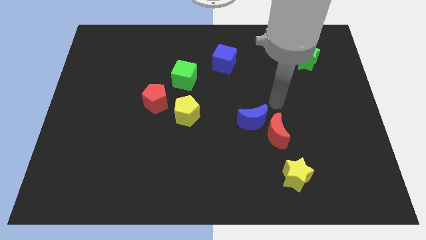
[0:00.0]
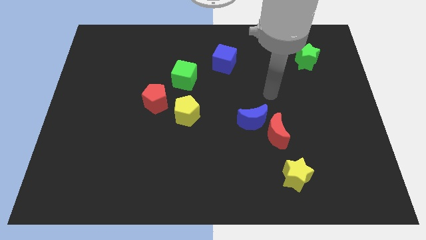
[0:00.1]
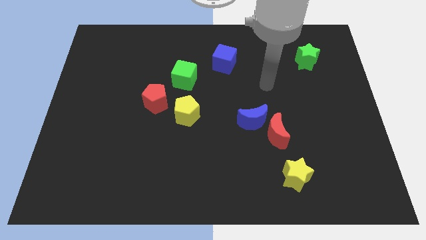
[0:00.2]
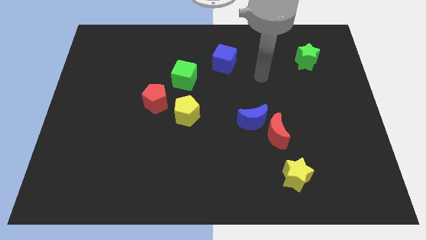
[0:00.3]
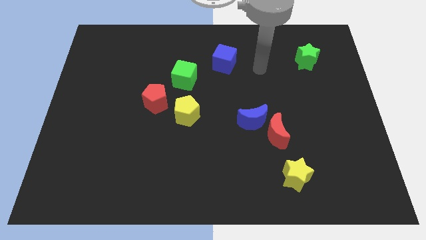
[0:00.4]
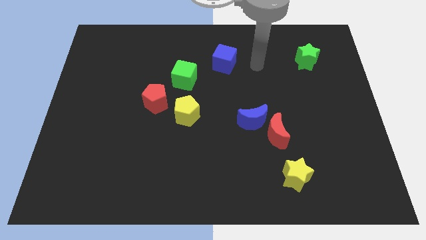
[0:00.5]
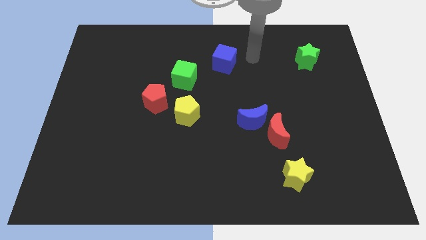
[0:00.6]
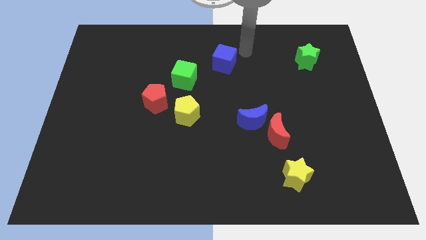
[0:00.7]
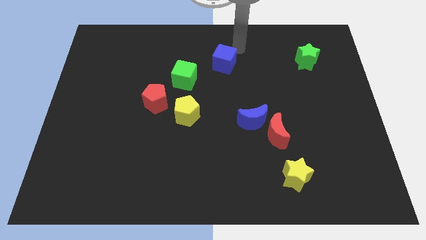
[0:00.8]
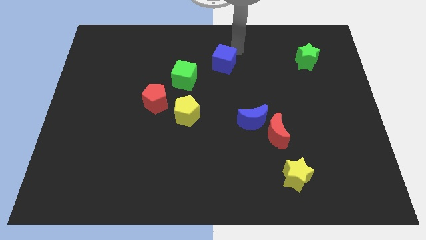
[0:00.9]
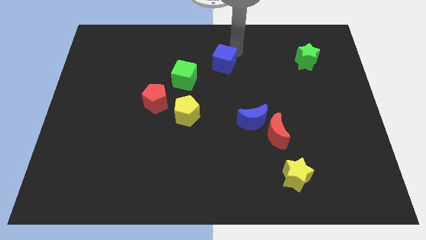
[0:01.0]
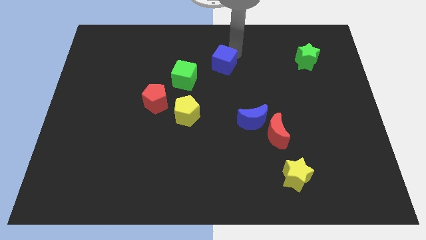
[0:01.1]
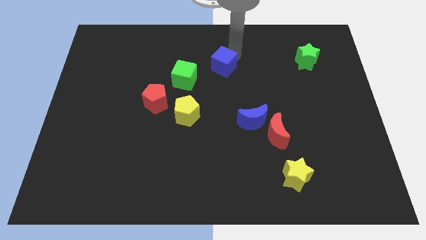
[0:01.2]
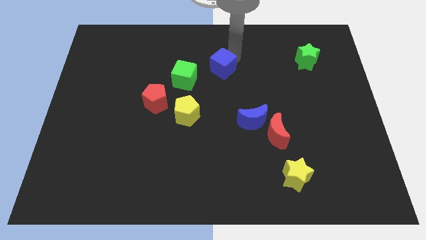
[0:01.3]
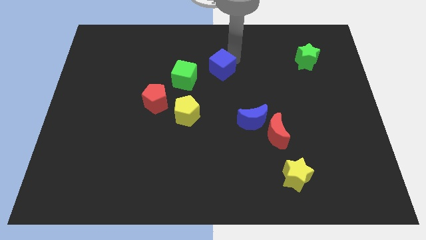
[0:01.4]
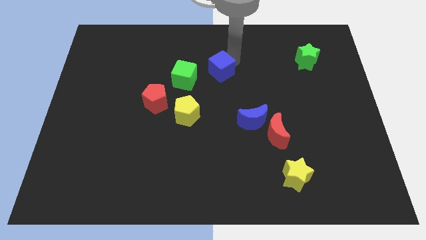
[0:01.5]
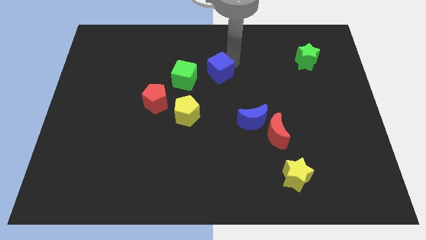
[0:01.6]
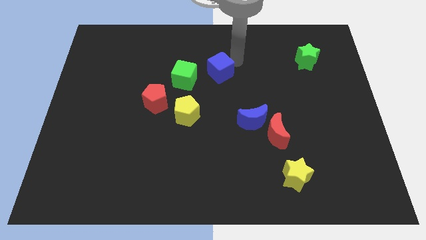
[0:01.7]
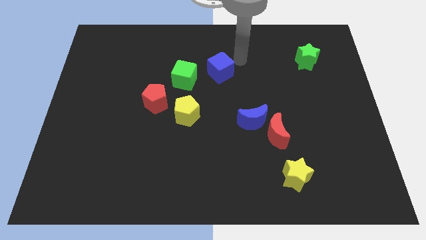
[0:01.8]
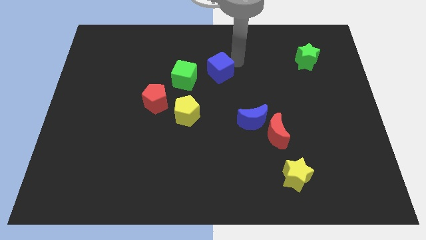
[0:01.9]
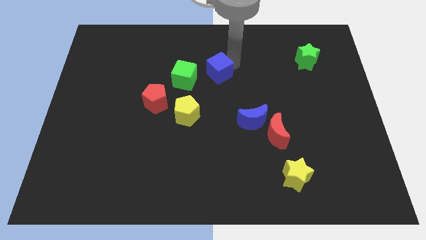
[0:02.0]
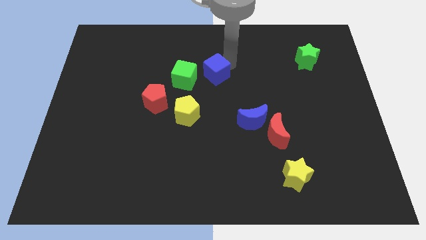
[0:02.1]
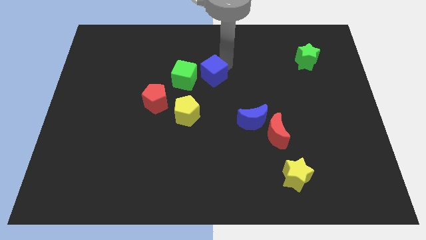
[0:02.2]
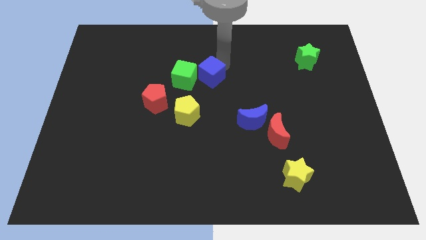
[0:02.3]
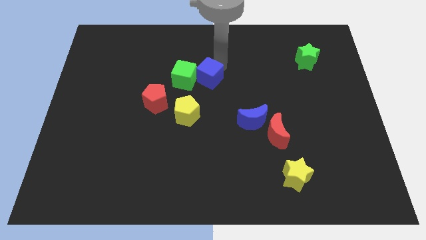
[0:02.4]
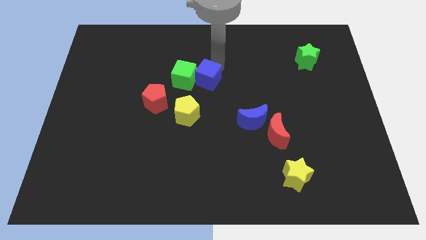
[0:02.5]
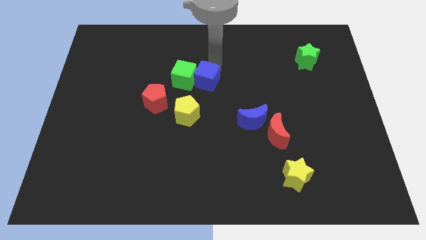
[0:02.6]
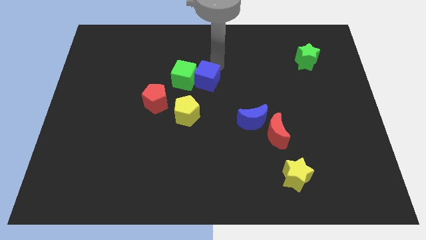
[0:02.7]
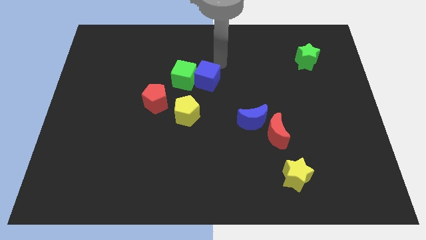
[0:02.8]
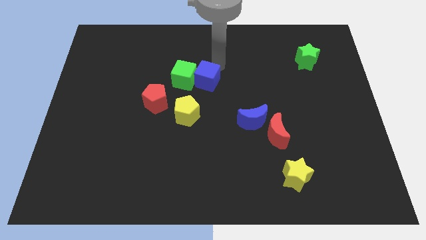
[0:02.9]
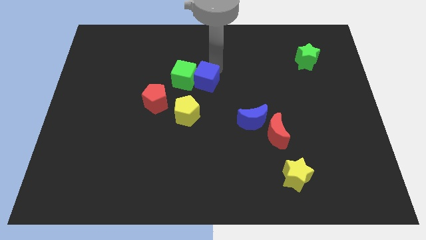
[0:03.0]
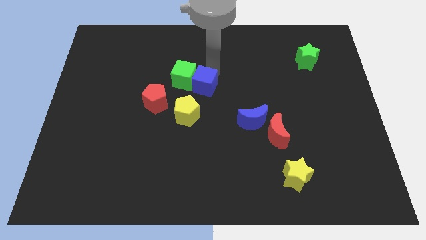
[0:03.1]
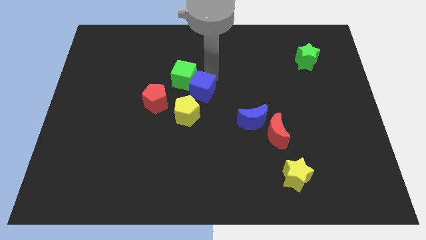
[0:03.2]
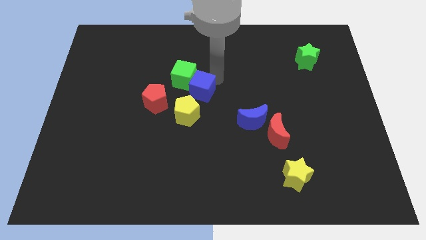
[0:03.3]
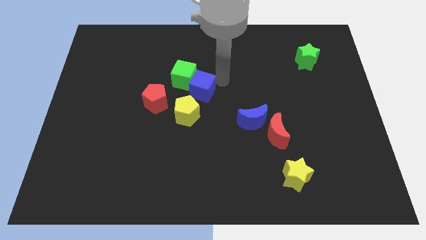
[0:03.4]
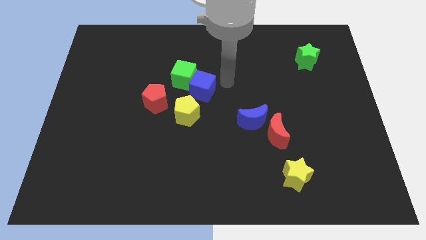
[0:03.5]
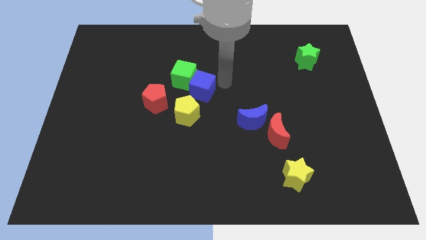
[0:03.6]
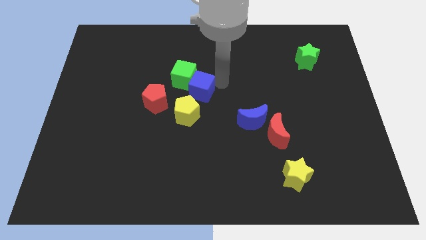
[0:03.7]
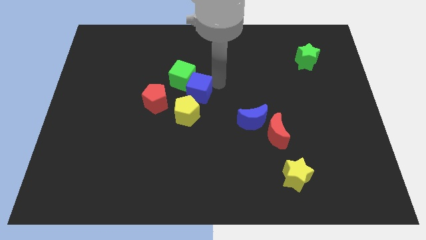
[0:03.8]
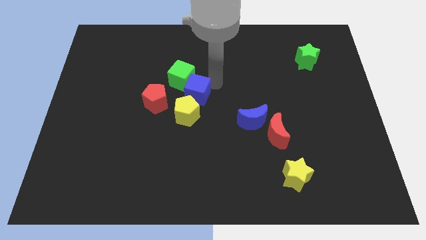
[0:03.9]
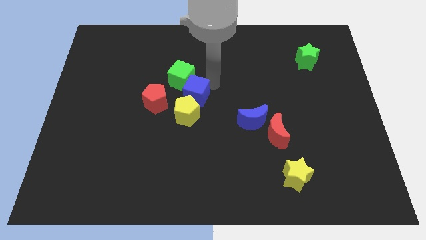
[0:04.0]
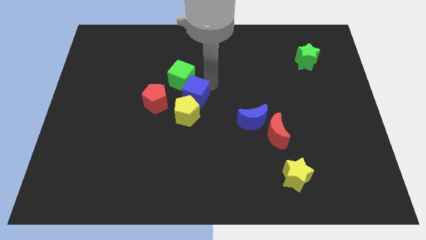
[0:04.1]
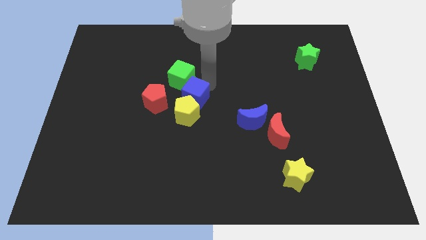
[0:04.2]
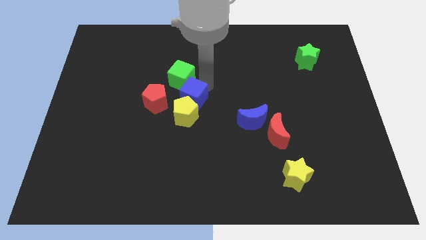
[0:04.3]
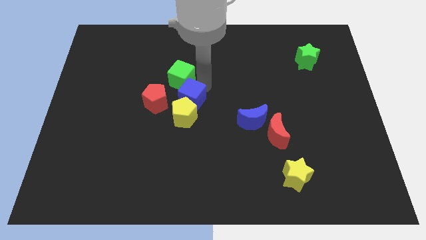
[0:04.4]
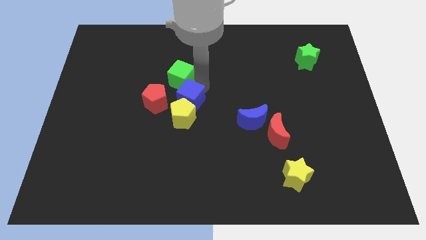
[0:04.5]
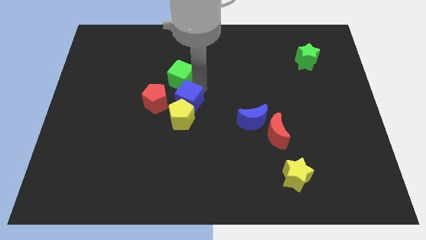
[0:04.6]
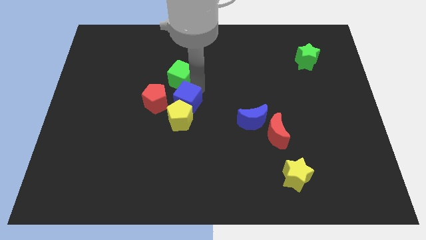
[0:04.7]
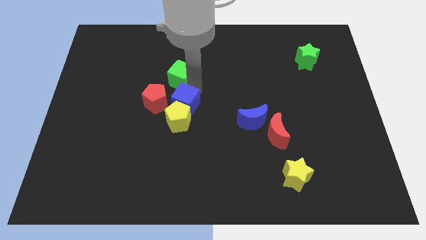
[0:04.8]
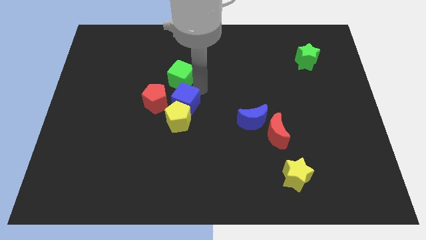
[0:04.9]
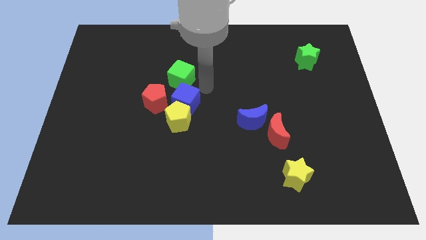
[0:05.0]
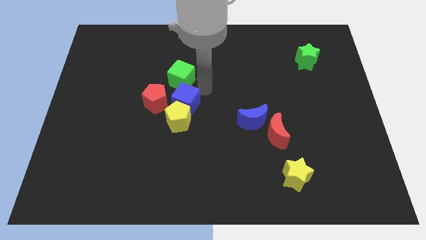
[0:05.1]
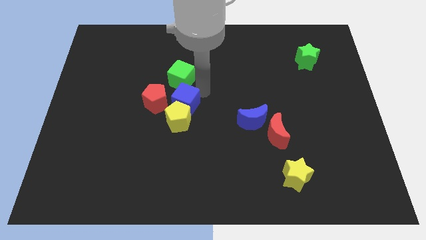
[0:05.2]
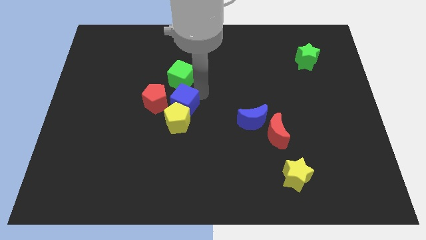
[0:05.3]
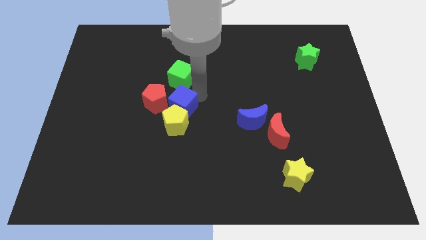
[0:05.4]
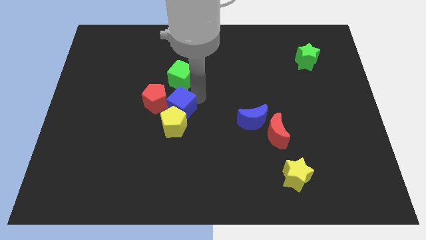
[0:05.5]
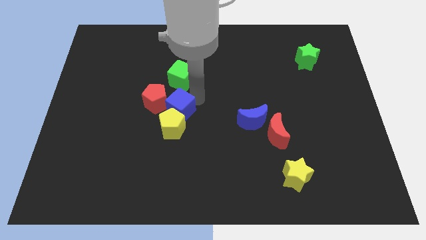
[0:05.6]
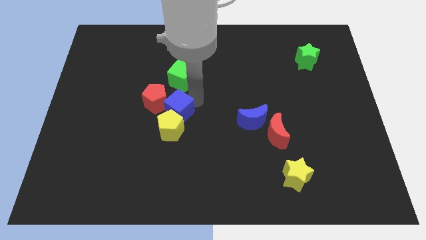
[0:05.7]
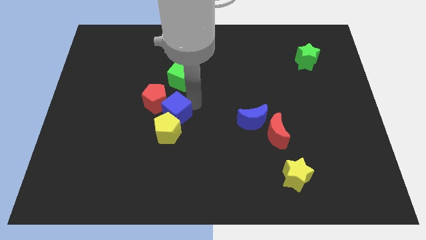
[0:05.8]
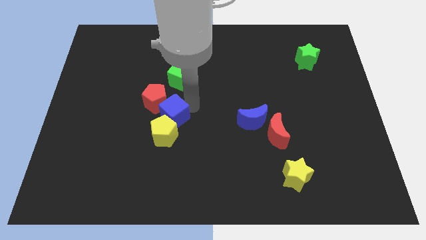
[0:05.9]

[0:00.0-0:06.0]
push the blue cube diagonally downwards and to the left

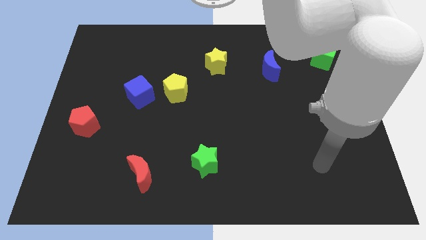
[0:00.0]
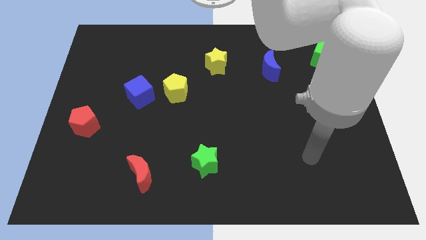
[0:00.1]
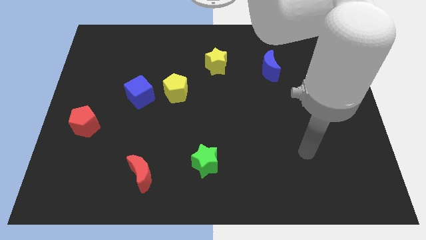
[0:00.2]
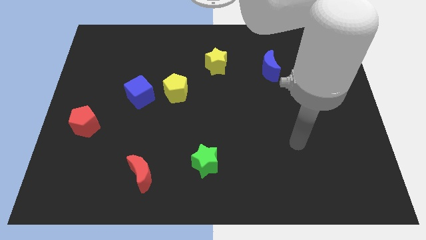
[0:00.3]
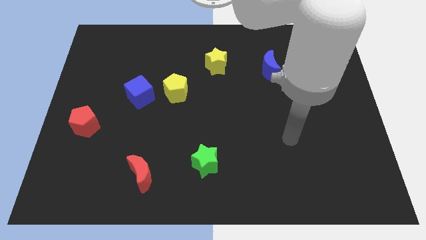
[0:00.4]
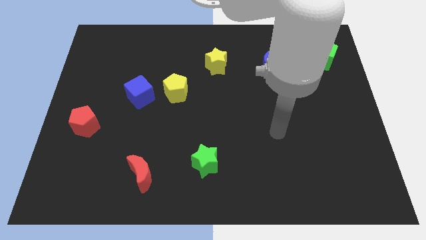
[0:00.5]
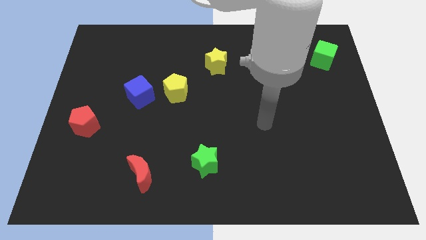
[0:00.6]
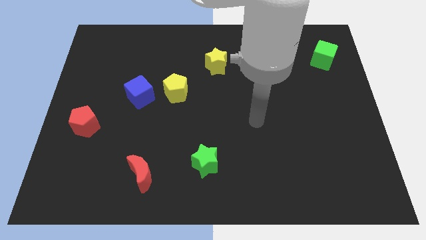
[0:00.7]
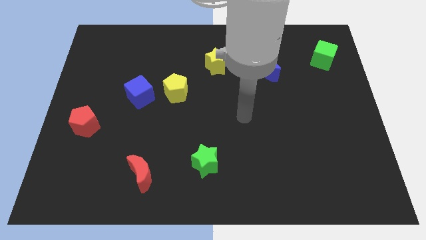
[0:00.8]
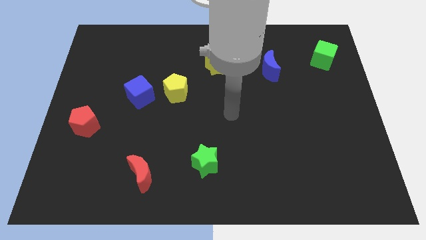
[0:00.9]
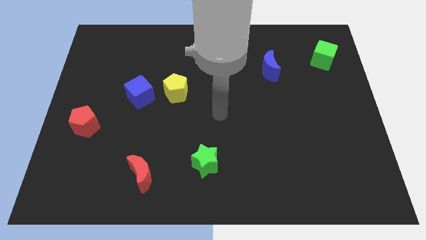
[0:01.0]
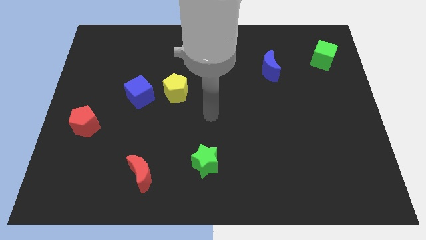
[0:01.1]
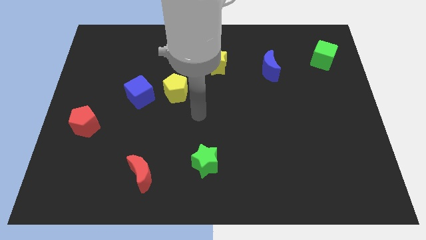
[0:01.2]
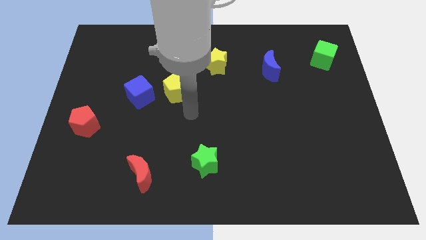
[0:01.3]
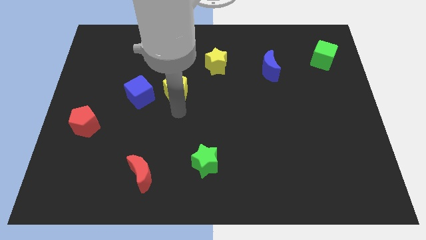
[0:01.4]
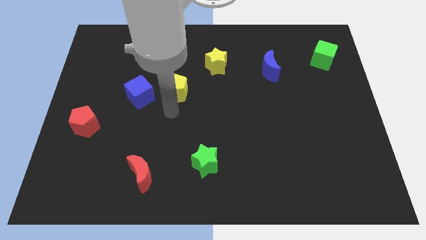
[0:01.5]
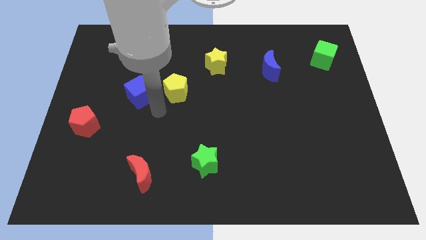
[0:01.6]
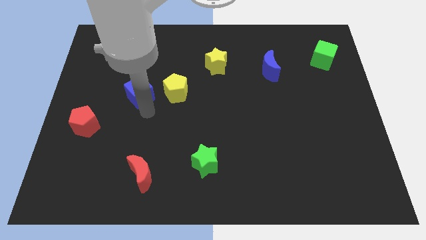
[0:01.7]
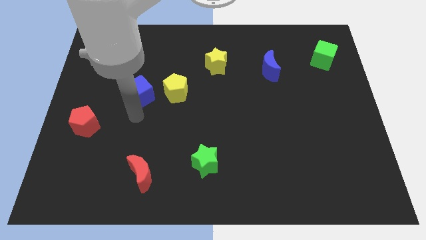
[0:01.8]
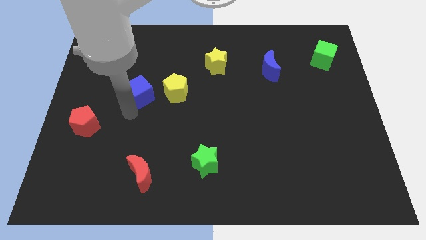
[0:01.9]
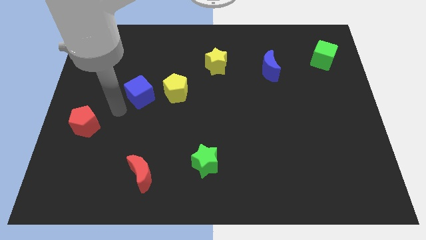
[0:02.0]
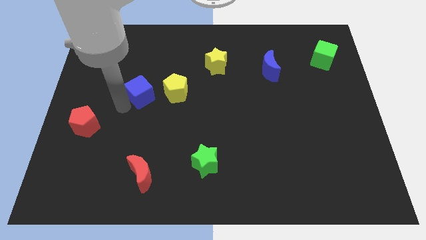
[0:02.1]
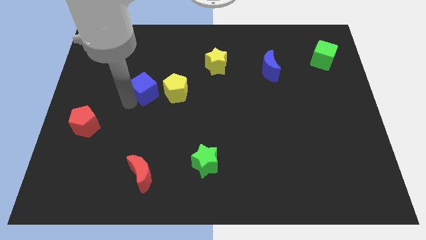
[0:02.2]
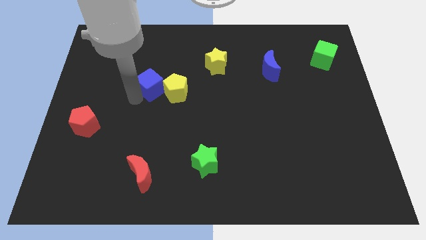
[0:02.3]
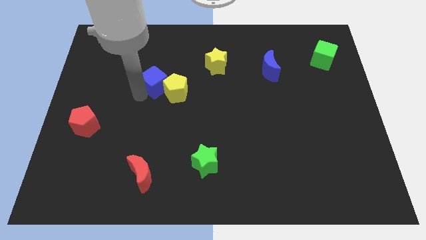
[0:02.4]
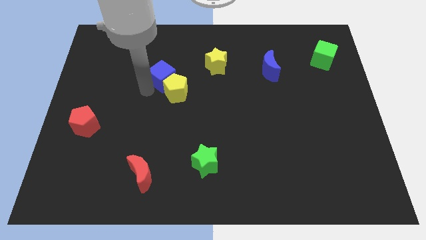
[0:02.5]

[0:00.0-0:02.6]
slightly slide the blue cube upwards and right diagonally

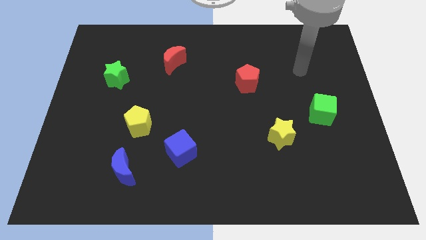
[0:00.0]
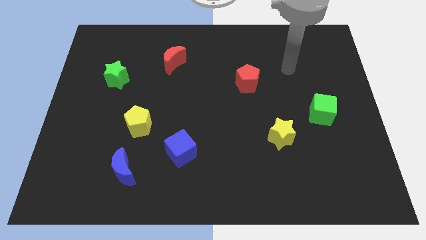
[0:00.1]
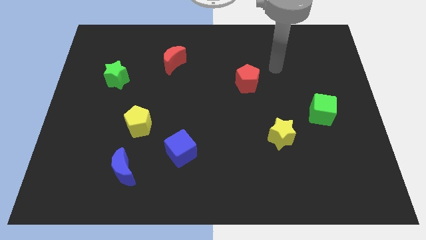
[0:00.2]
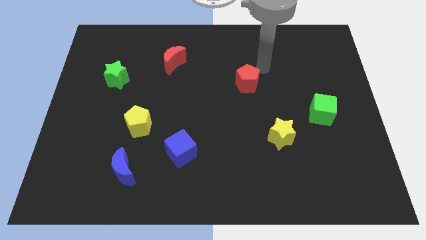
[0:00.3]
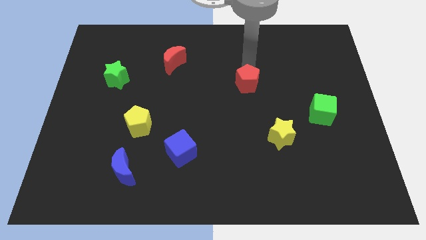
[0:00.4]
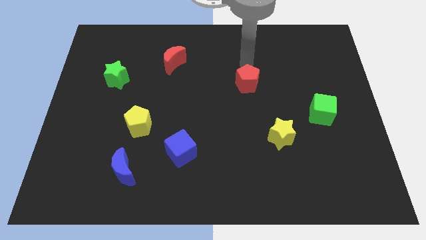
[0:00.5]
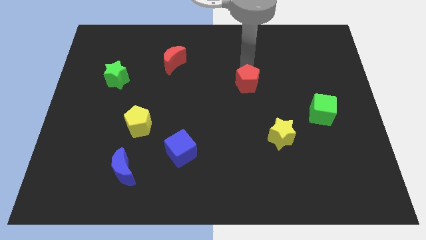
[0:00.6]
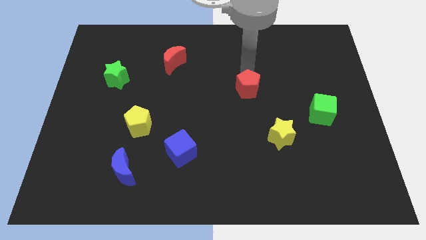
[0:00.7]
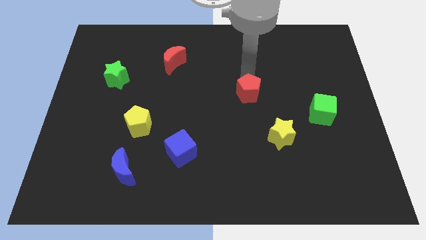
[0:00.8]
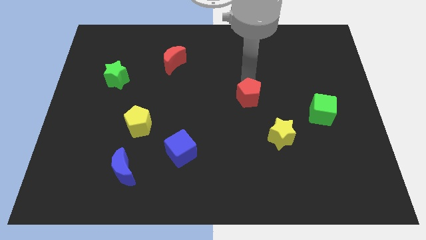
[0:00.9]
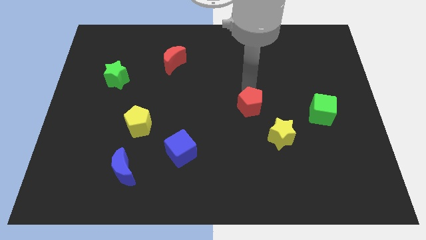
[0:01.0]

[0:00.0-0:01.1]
slightly move the red pentagon down
